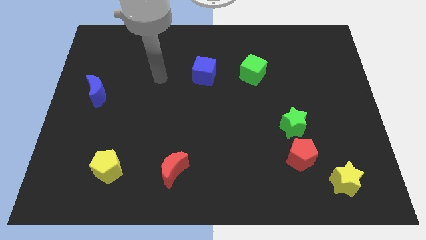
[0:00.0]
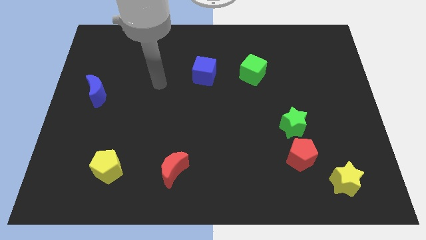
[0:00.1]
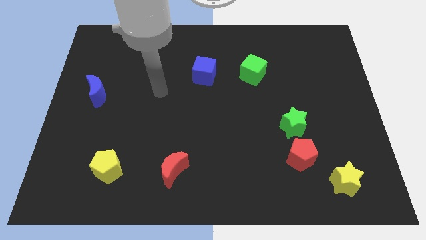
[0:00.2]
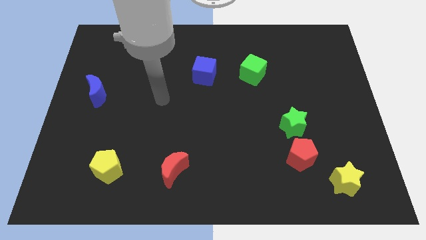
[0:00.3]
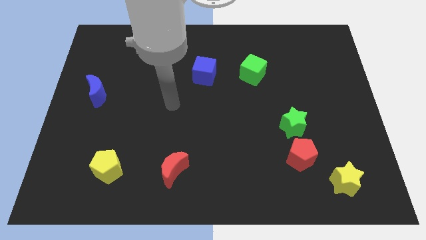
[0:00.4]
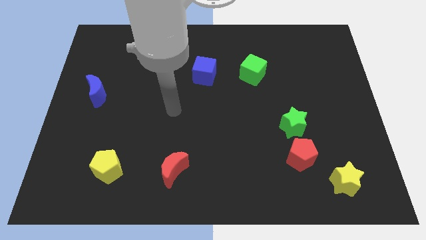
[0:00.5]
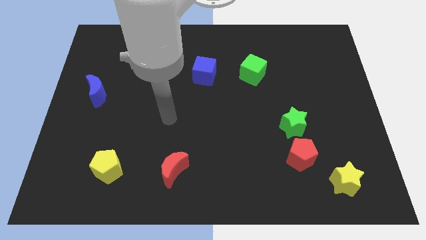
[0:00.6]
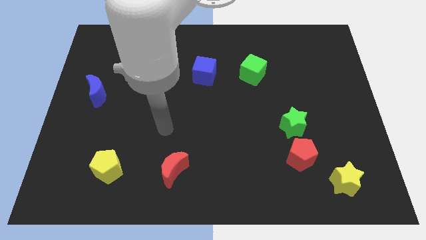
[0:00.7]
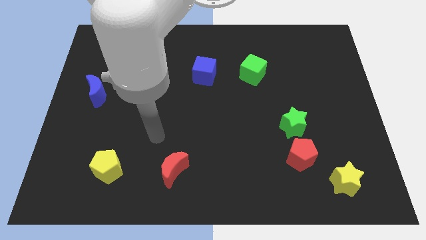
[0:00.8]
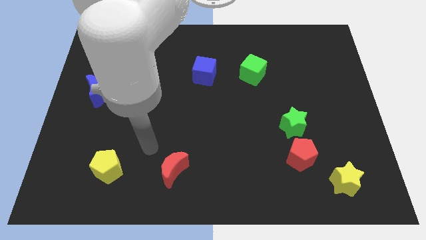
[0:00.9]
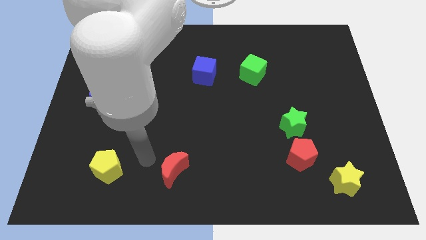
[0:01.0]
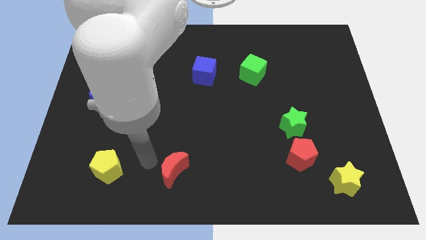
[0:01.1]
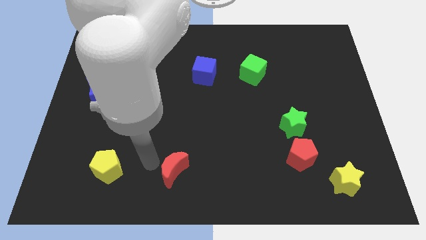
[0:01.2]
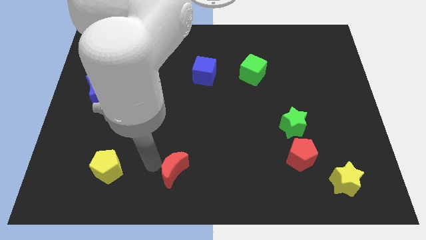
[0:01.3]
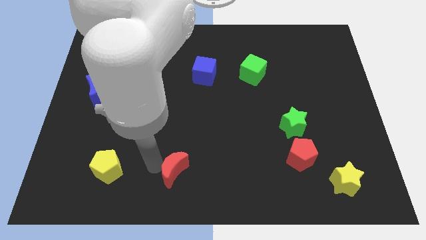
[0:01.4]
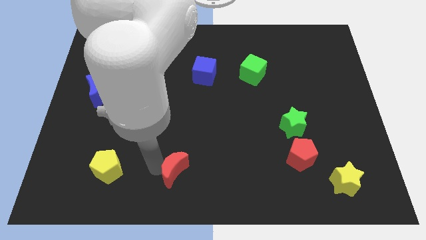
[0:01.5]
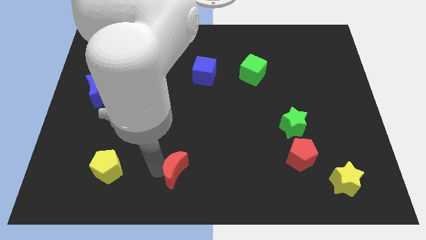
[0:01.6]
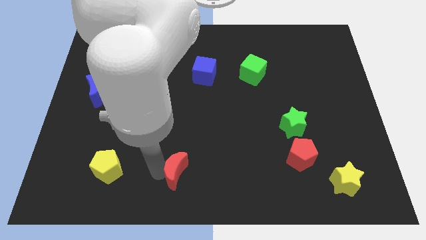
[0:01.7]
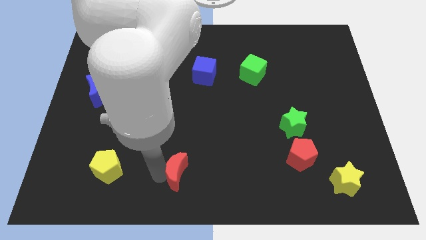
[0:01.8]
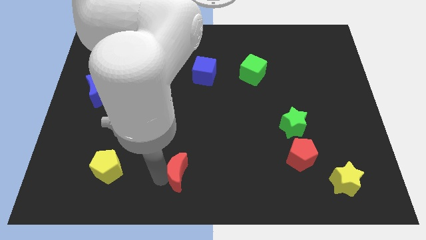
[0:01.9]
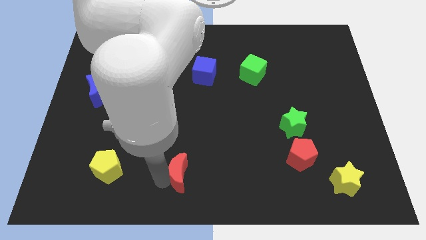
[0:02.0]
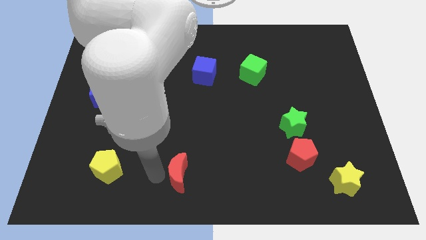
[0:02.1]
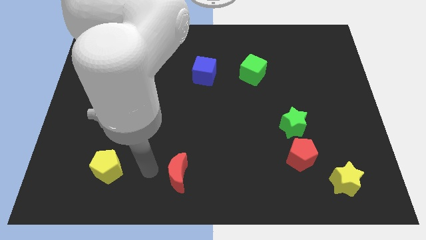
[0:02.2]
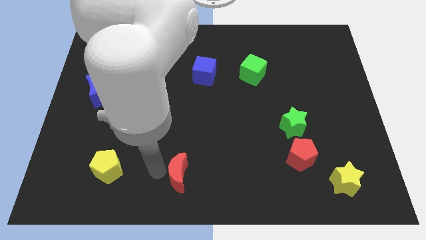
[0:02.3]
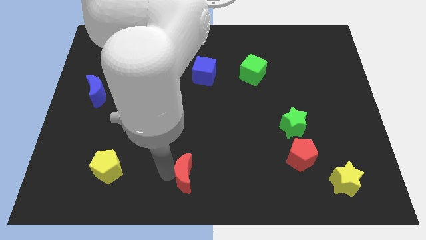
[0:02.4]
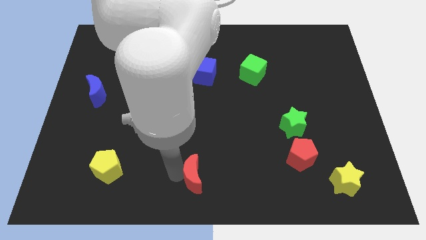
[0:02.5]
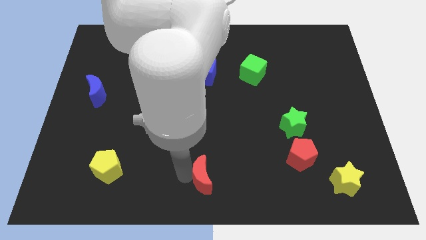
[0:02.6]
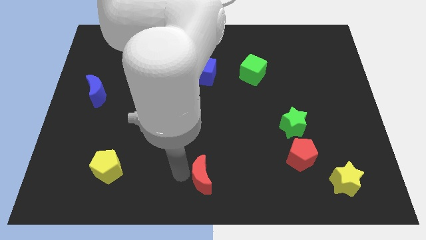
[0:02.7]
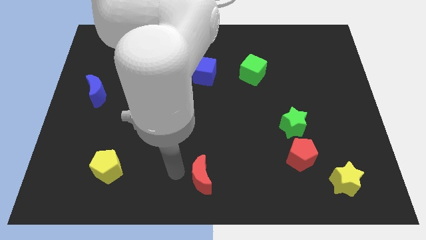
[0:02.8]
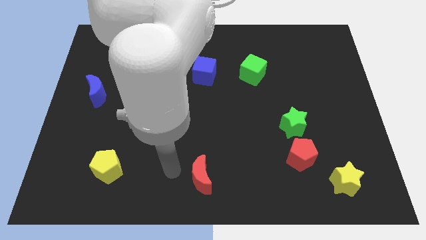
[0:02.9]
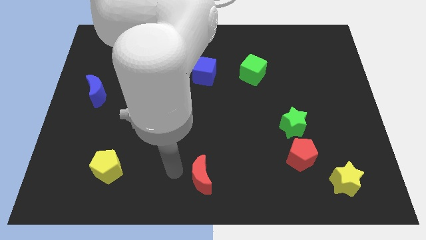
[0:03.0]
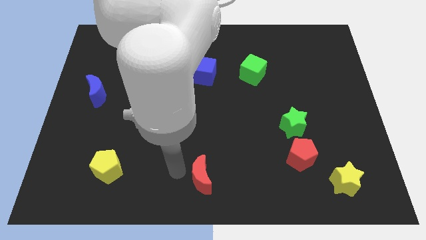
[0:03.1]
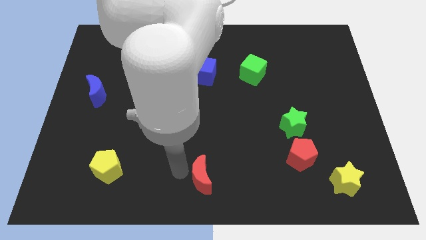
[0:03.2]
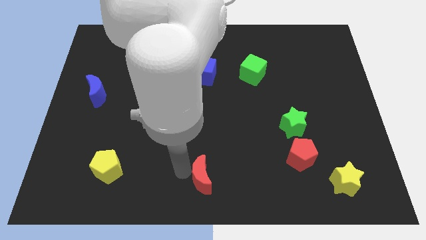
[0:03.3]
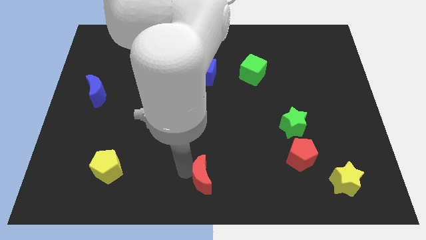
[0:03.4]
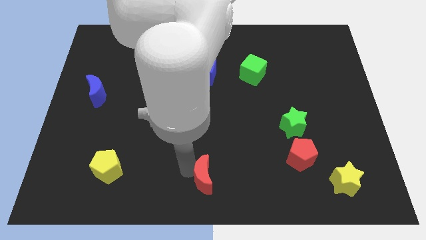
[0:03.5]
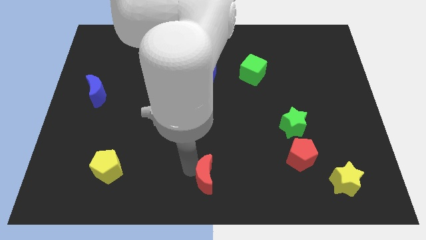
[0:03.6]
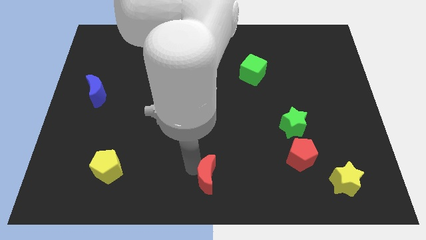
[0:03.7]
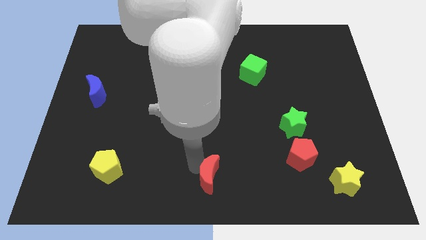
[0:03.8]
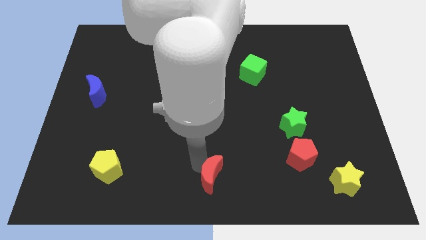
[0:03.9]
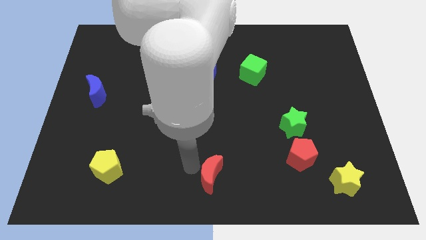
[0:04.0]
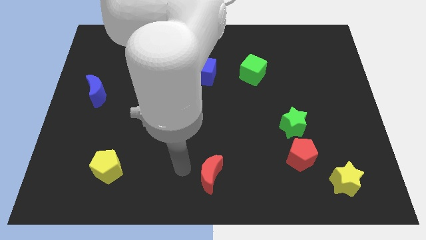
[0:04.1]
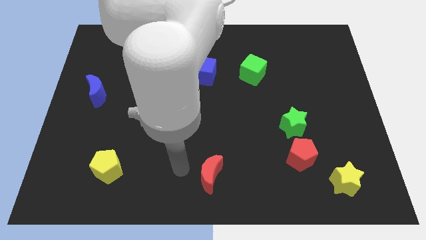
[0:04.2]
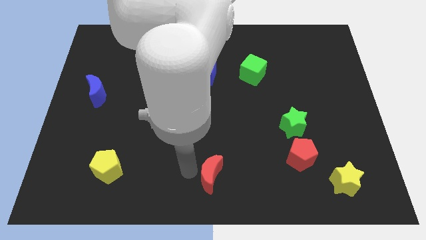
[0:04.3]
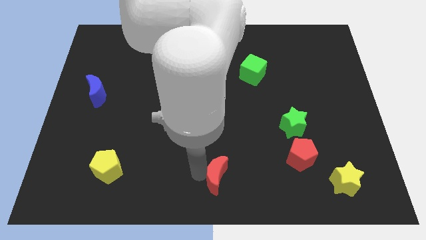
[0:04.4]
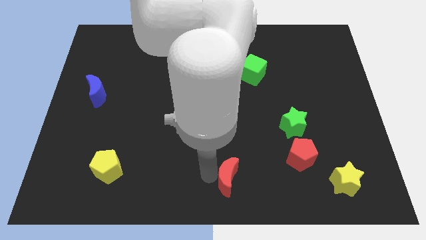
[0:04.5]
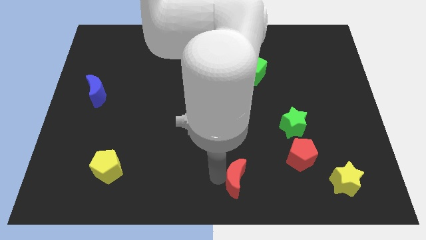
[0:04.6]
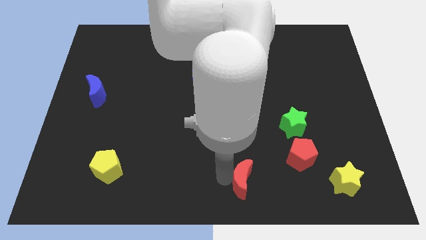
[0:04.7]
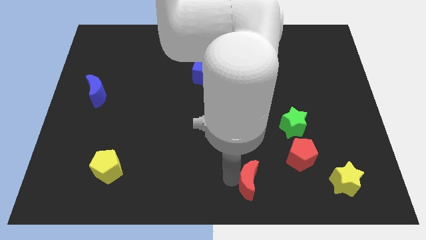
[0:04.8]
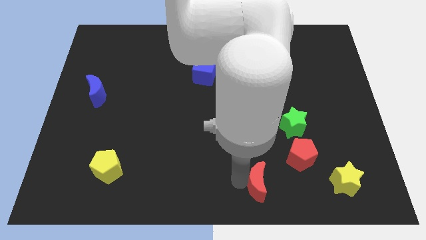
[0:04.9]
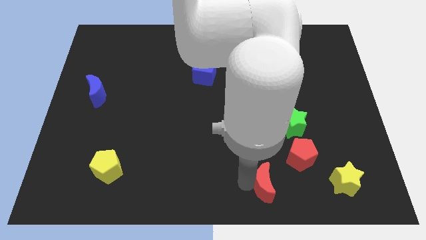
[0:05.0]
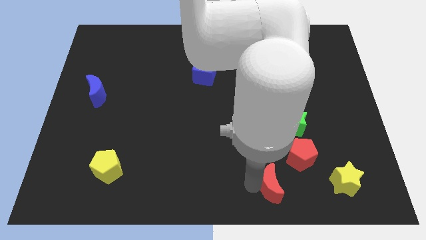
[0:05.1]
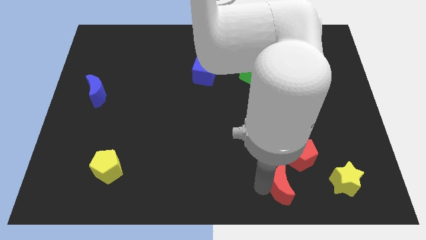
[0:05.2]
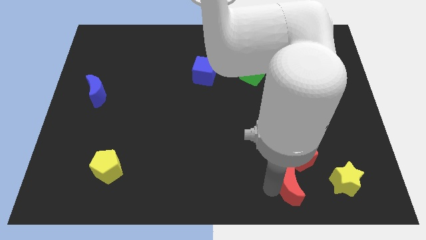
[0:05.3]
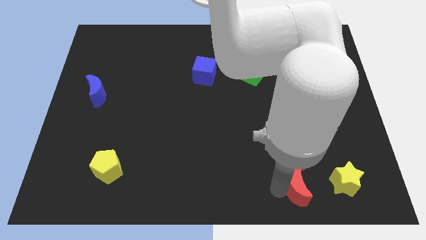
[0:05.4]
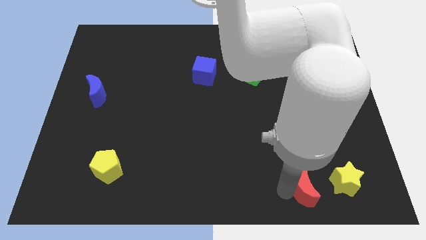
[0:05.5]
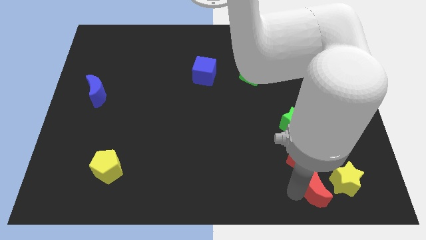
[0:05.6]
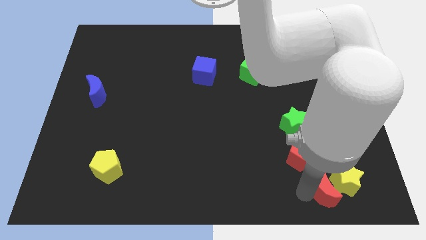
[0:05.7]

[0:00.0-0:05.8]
put the red moon towards the yellow star

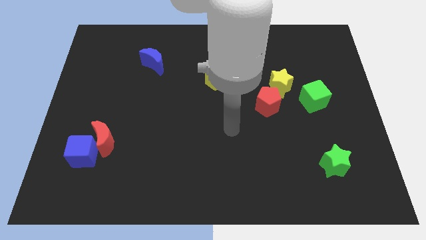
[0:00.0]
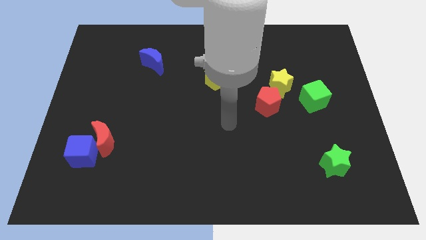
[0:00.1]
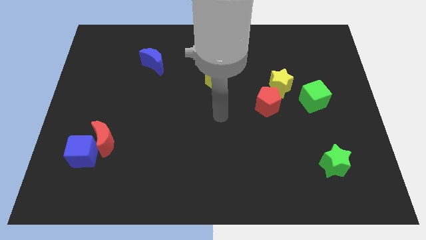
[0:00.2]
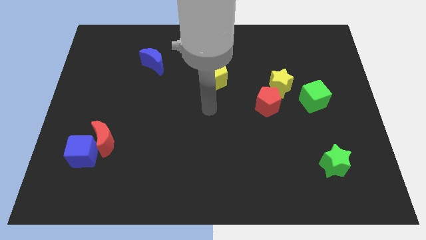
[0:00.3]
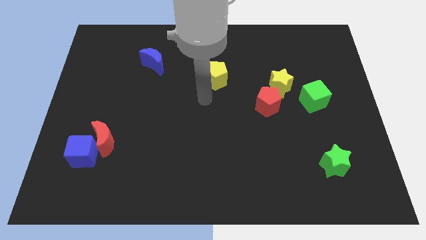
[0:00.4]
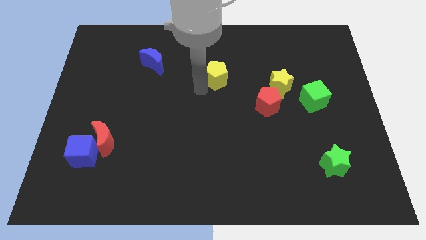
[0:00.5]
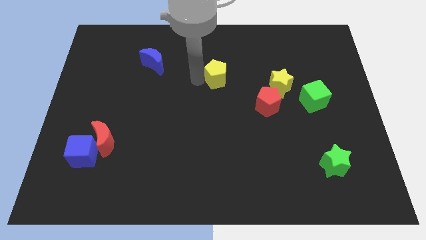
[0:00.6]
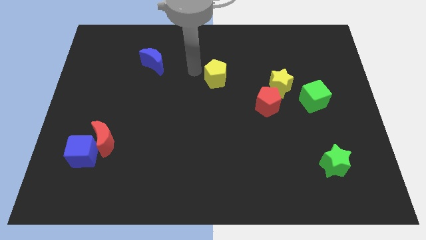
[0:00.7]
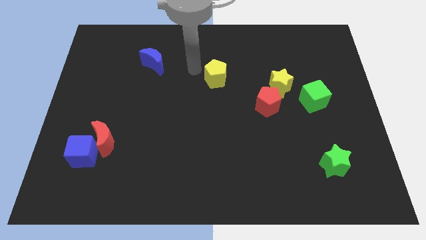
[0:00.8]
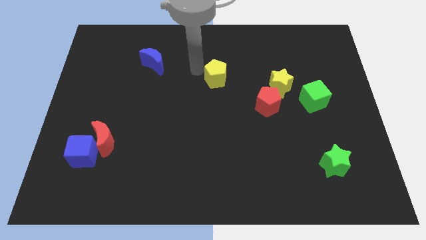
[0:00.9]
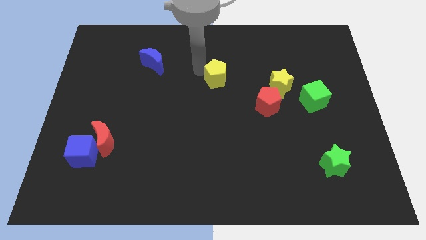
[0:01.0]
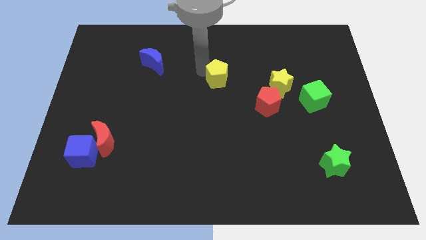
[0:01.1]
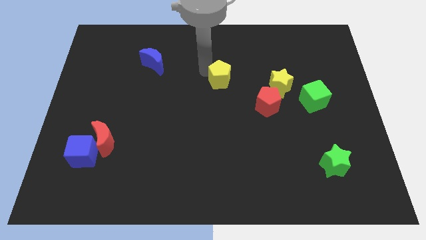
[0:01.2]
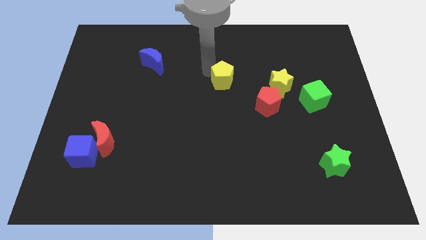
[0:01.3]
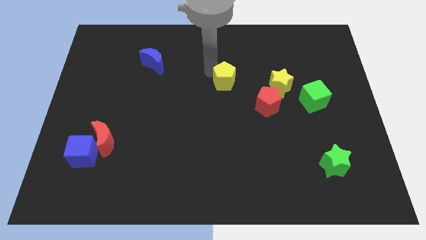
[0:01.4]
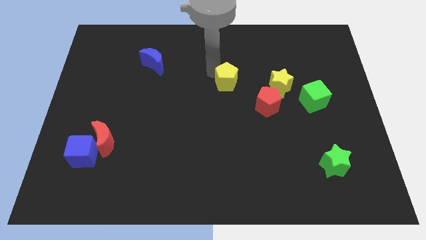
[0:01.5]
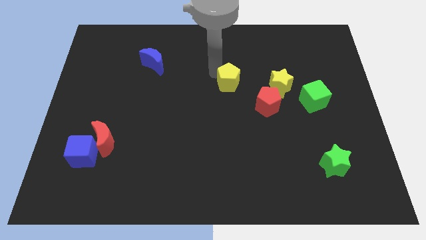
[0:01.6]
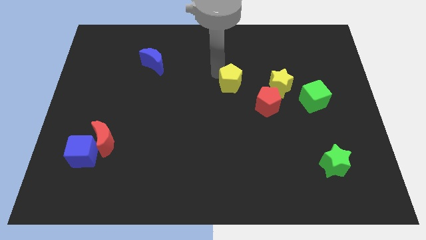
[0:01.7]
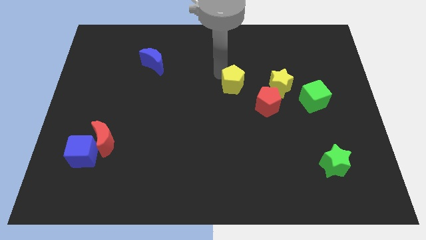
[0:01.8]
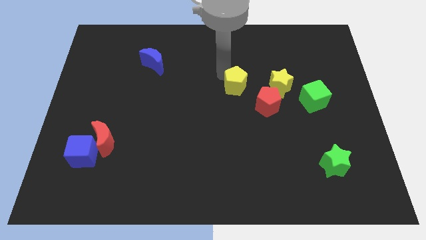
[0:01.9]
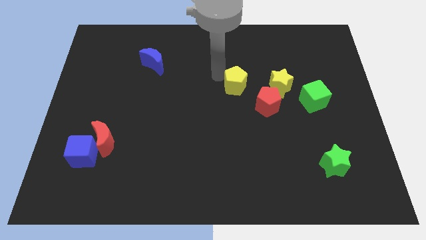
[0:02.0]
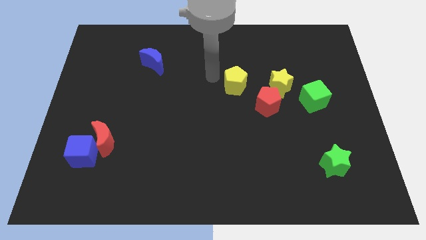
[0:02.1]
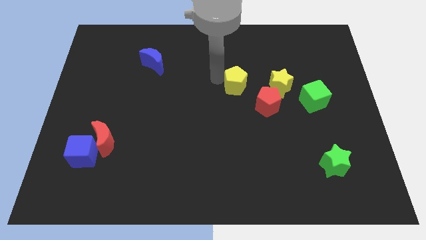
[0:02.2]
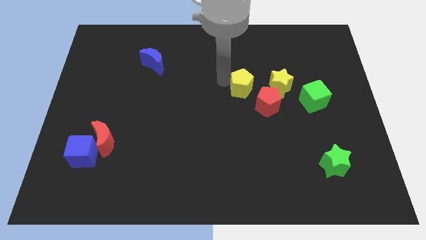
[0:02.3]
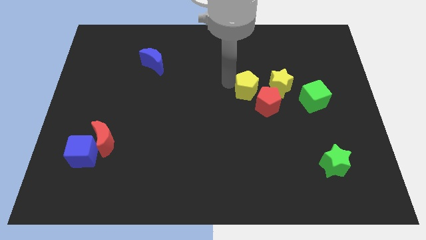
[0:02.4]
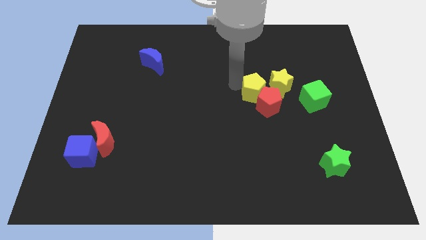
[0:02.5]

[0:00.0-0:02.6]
put the yellow pentagon close to the red pentagon
